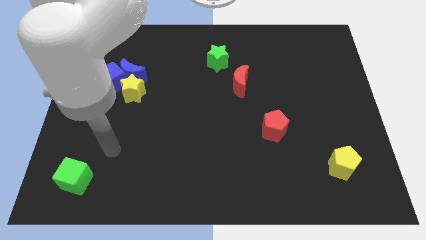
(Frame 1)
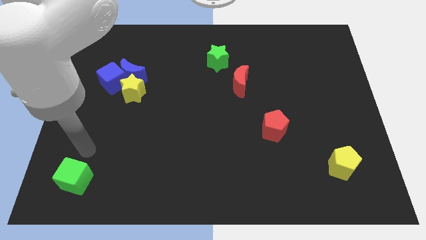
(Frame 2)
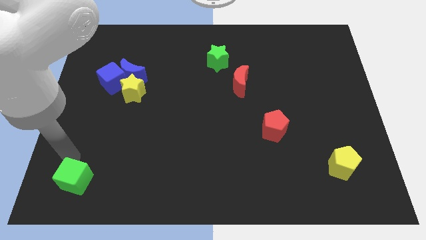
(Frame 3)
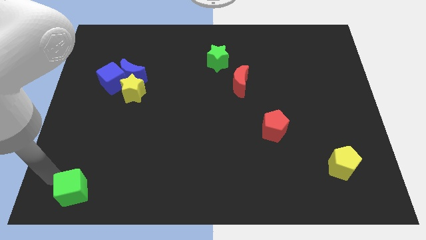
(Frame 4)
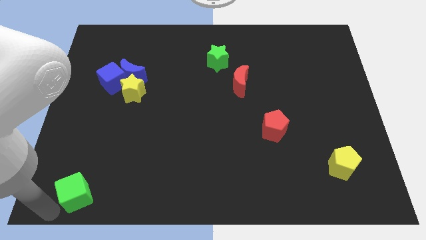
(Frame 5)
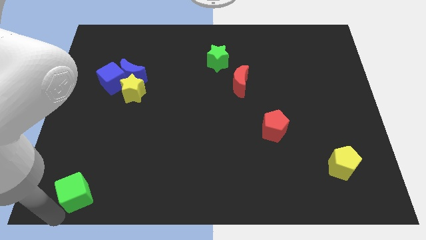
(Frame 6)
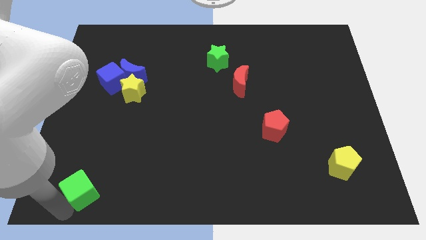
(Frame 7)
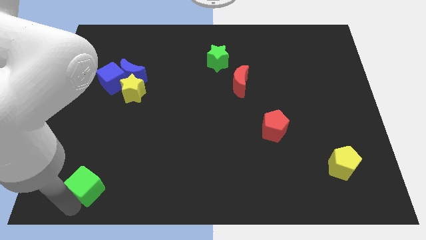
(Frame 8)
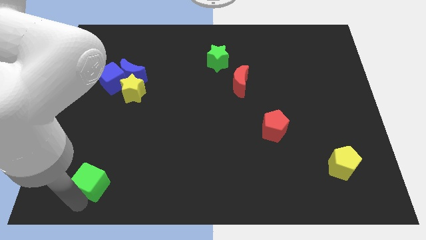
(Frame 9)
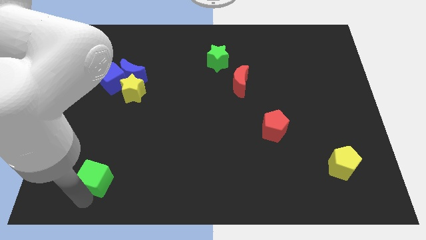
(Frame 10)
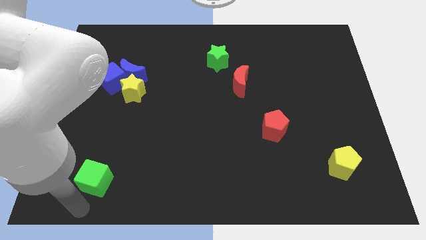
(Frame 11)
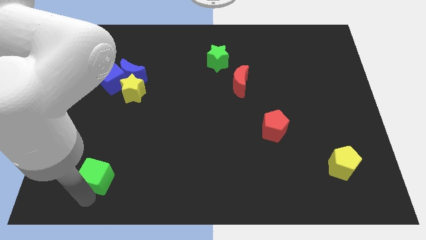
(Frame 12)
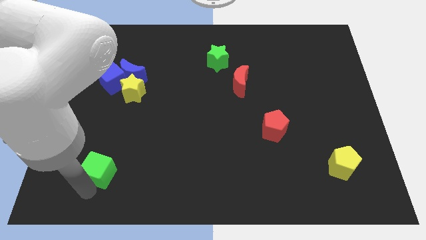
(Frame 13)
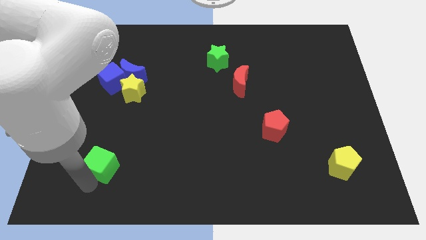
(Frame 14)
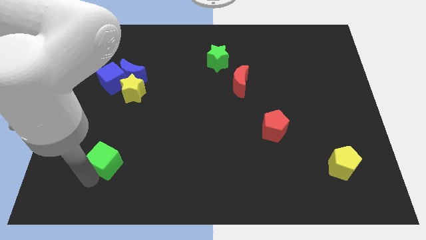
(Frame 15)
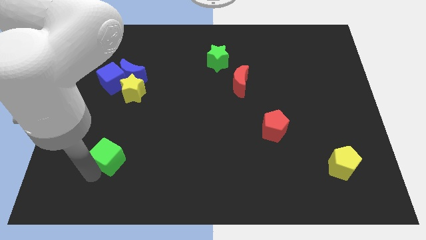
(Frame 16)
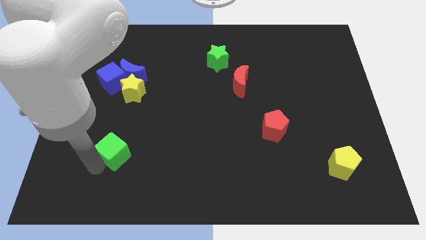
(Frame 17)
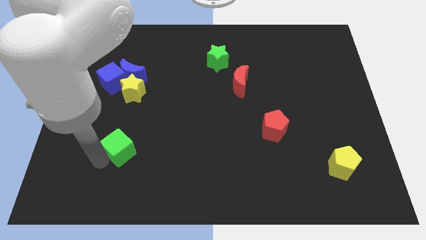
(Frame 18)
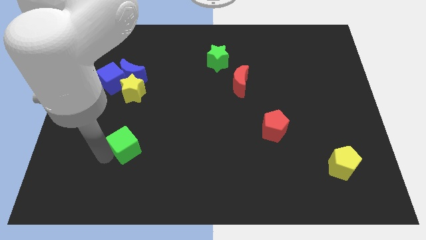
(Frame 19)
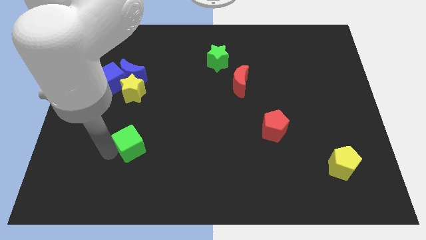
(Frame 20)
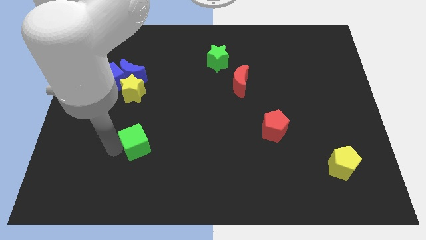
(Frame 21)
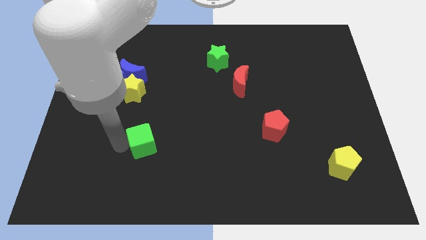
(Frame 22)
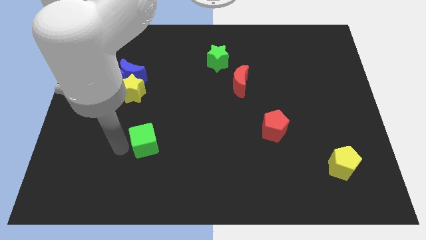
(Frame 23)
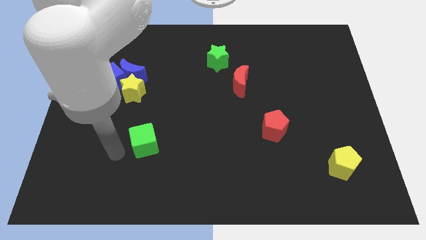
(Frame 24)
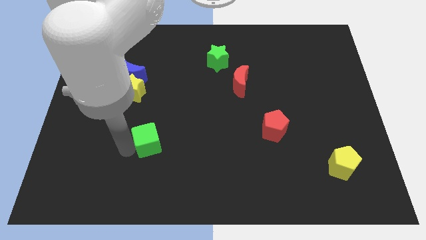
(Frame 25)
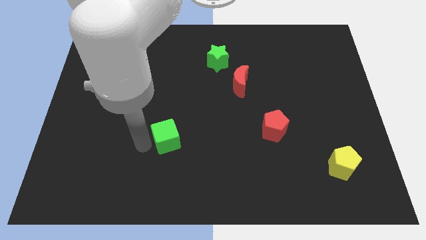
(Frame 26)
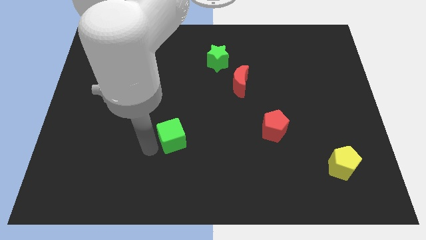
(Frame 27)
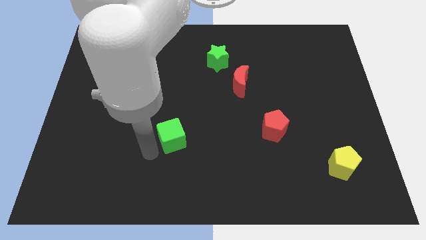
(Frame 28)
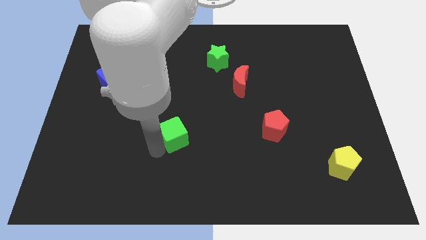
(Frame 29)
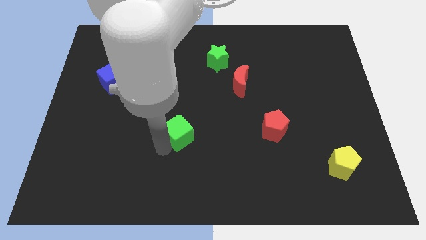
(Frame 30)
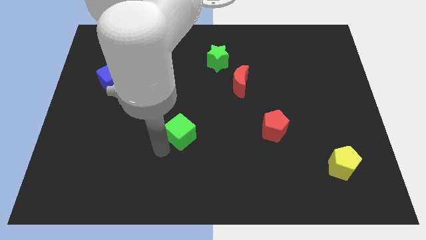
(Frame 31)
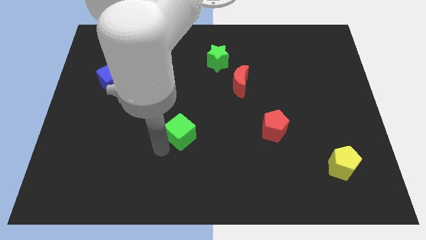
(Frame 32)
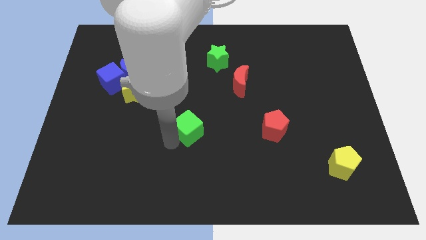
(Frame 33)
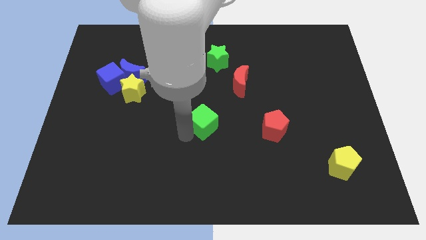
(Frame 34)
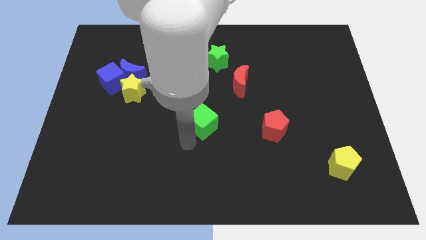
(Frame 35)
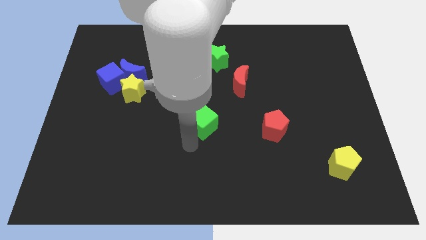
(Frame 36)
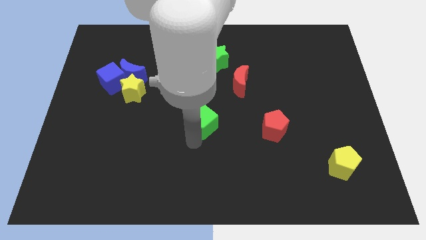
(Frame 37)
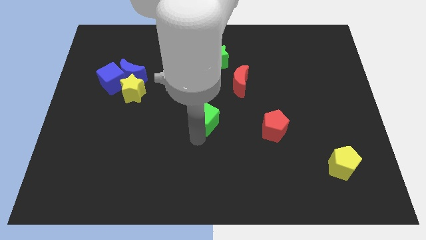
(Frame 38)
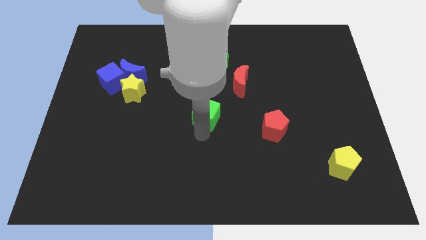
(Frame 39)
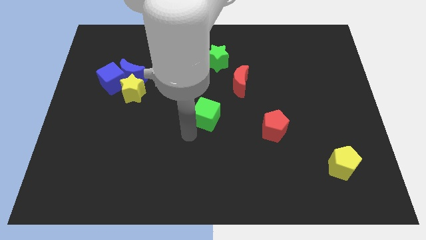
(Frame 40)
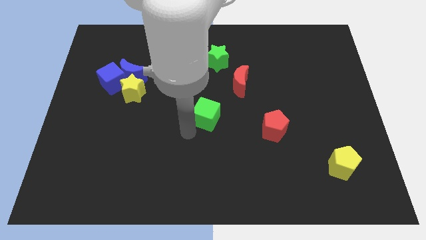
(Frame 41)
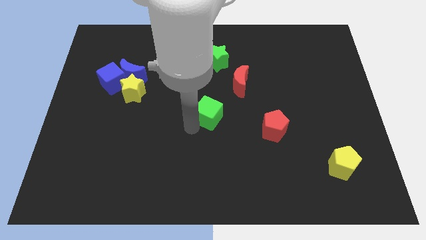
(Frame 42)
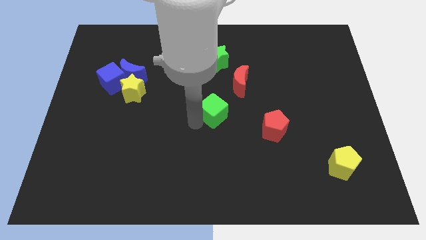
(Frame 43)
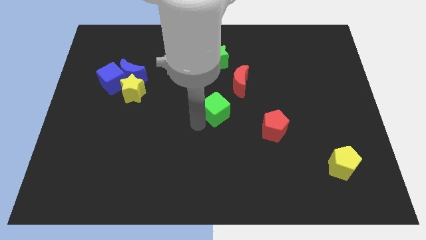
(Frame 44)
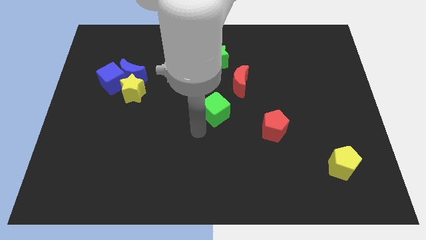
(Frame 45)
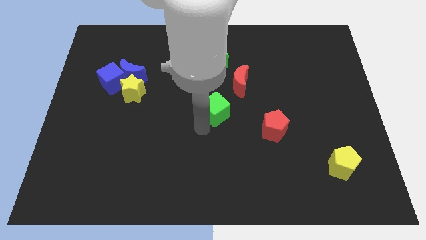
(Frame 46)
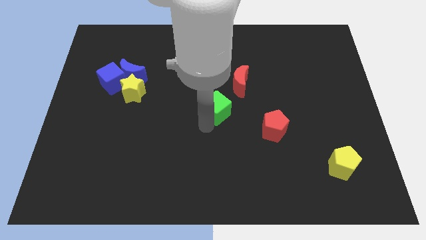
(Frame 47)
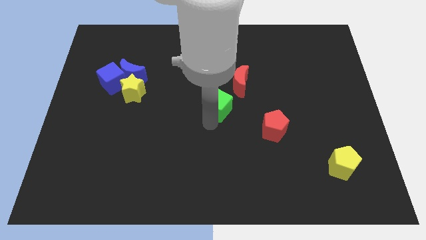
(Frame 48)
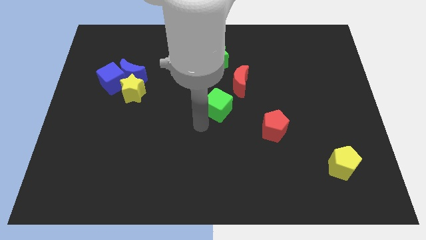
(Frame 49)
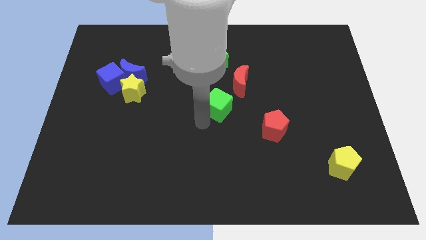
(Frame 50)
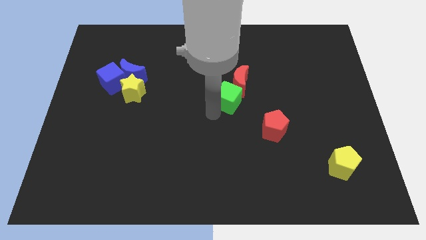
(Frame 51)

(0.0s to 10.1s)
put the green cube close to the red moon

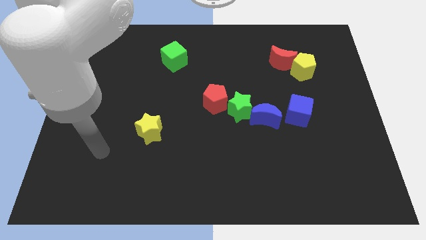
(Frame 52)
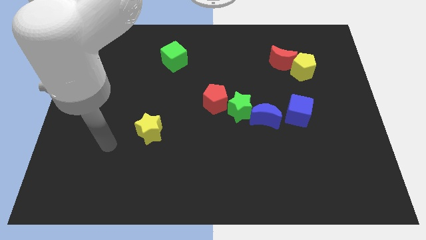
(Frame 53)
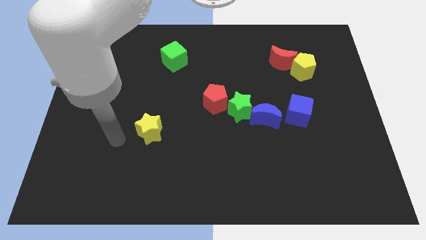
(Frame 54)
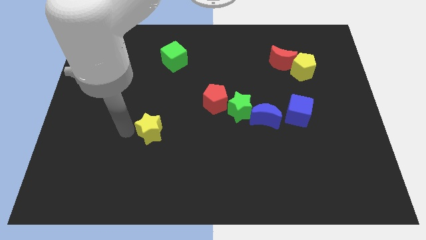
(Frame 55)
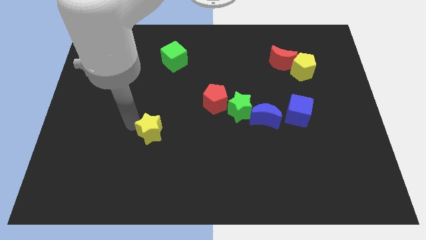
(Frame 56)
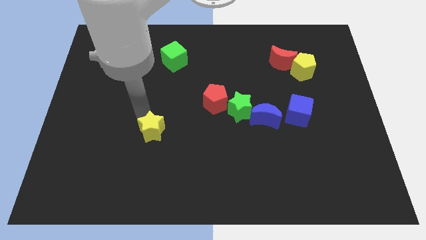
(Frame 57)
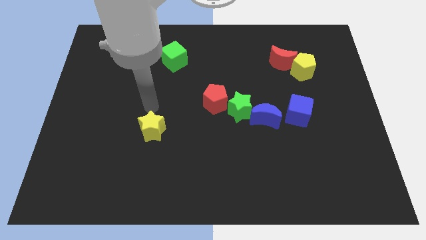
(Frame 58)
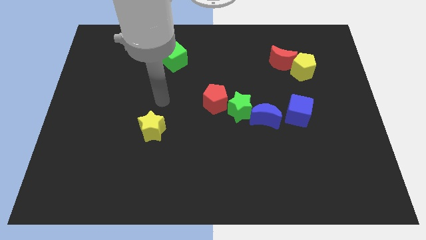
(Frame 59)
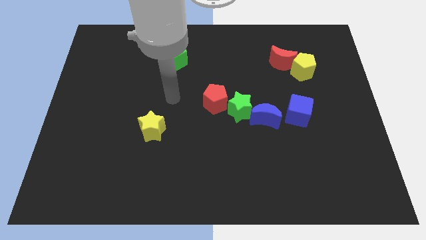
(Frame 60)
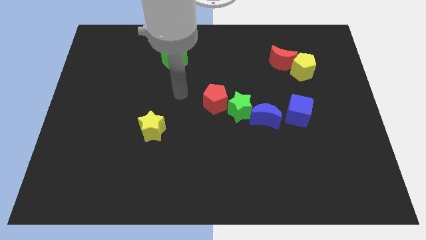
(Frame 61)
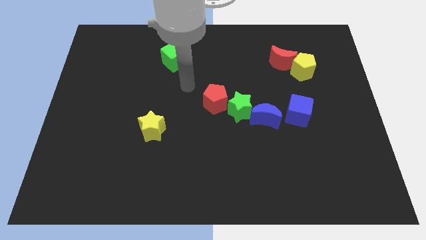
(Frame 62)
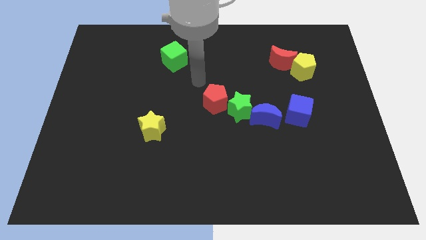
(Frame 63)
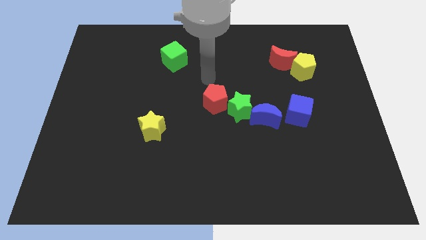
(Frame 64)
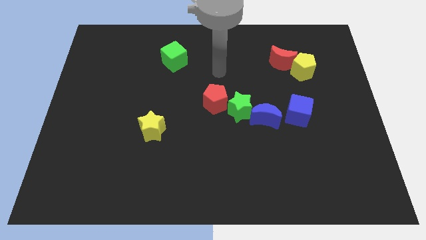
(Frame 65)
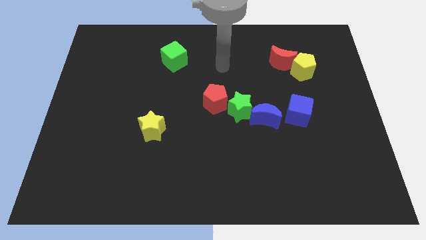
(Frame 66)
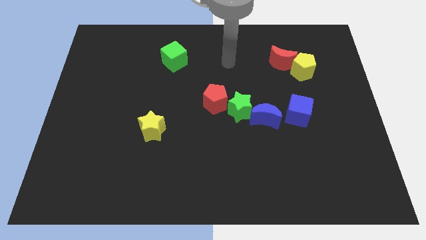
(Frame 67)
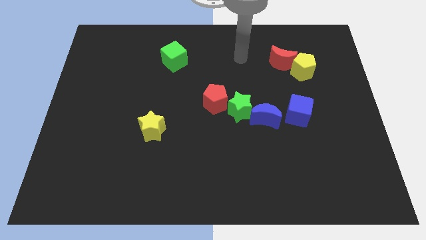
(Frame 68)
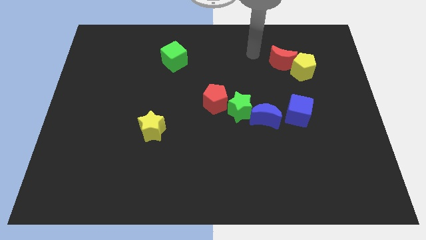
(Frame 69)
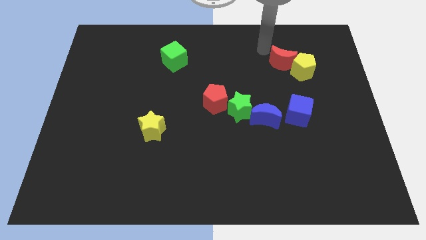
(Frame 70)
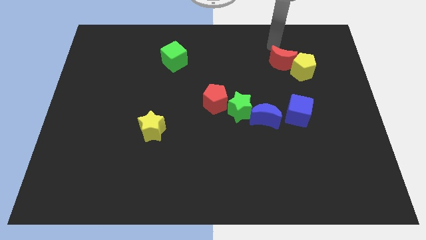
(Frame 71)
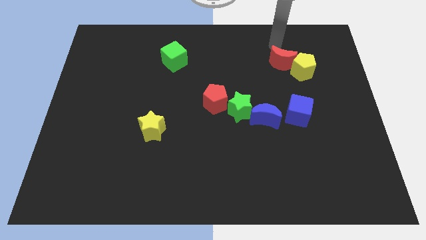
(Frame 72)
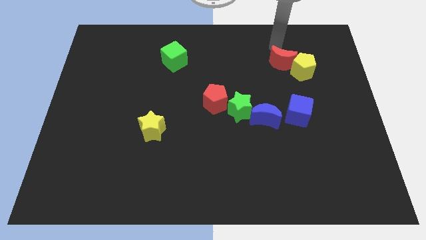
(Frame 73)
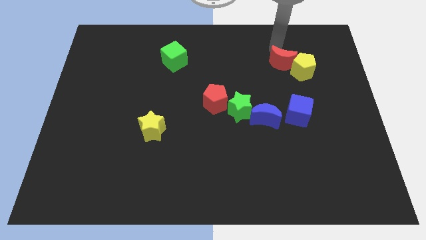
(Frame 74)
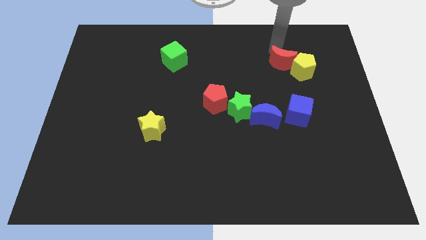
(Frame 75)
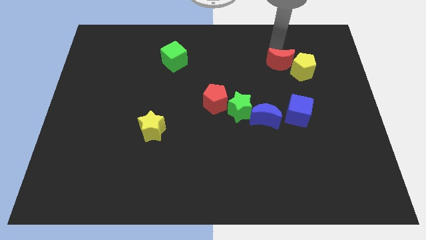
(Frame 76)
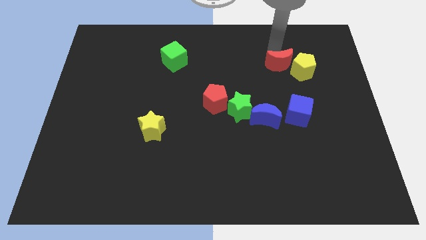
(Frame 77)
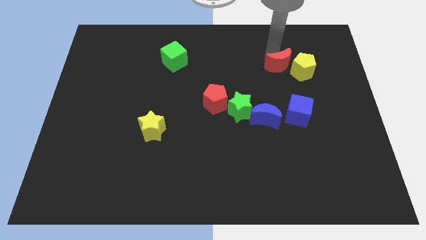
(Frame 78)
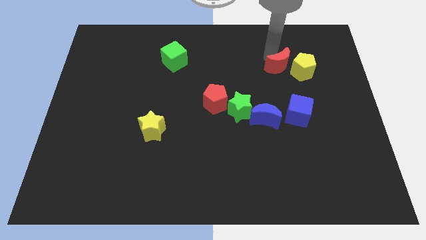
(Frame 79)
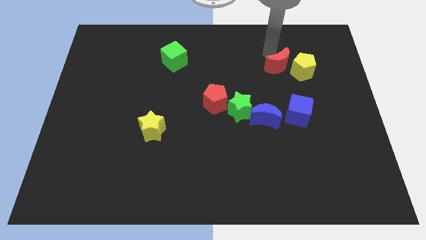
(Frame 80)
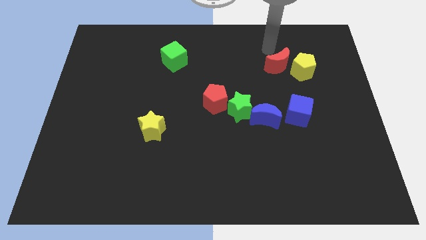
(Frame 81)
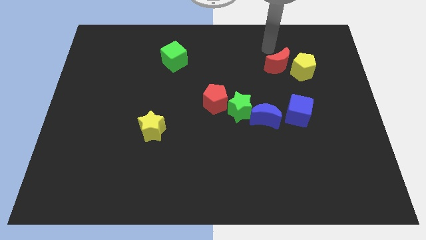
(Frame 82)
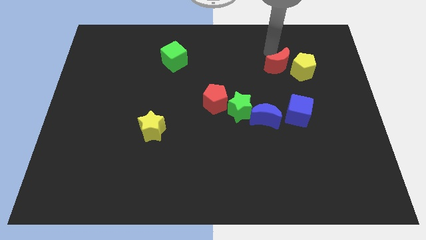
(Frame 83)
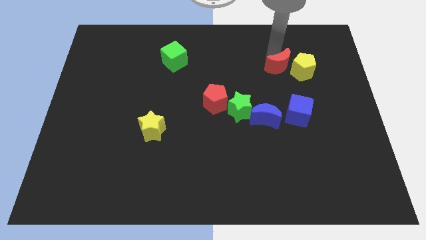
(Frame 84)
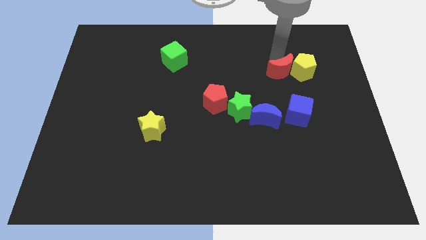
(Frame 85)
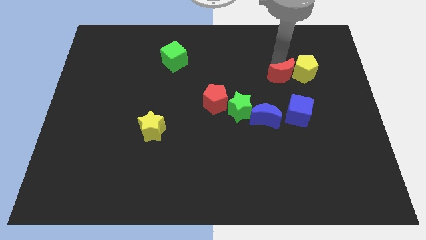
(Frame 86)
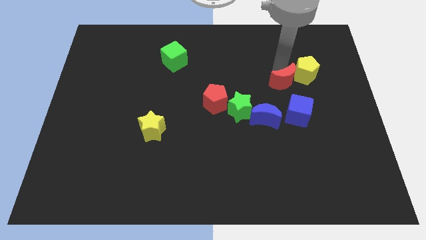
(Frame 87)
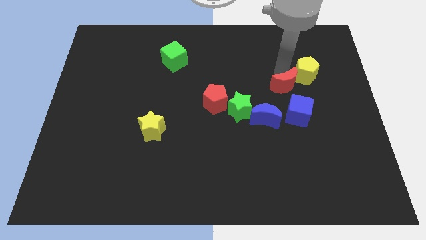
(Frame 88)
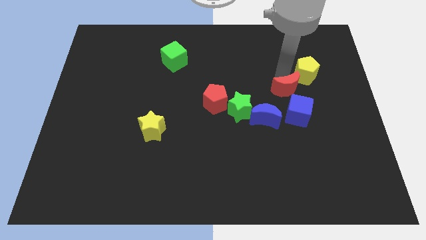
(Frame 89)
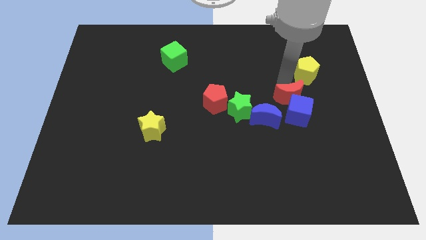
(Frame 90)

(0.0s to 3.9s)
slide the red moon close to the blue cube
